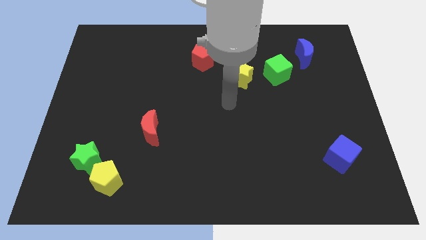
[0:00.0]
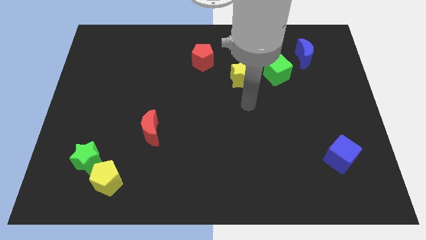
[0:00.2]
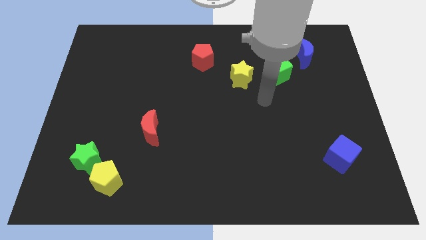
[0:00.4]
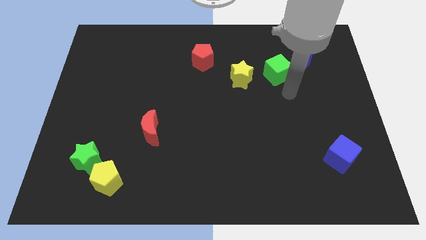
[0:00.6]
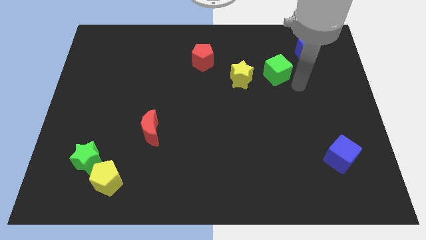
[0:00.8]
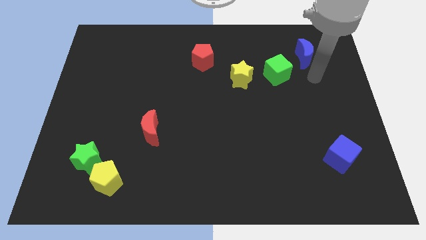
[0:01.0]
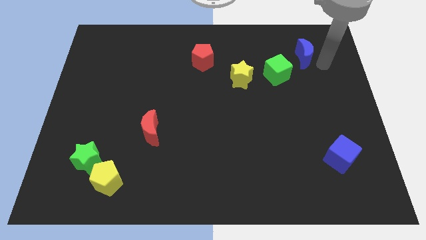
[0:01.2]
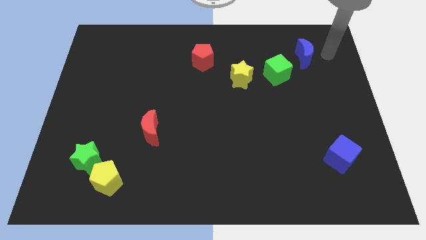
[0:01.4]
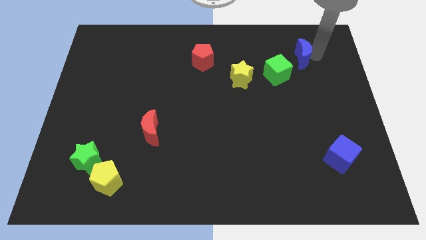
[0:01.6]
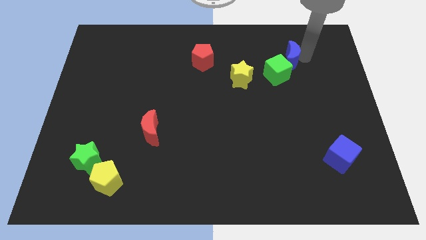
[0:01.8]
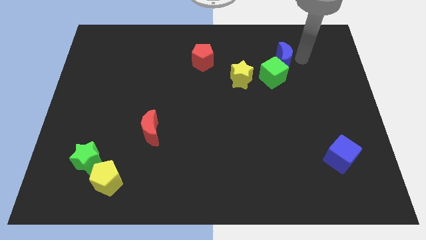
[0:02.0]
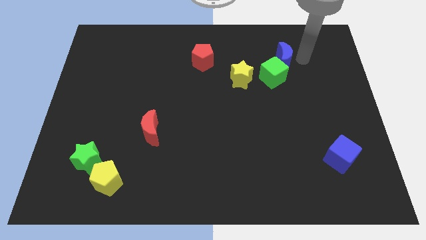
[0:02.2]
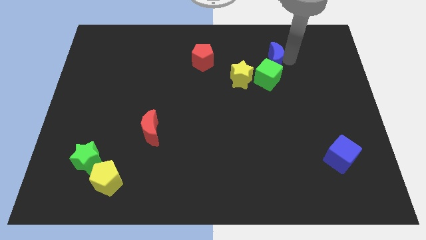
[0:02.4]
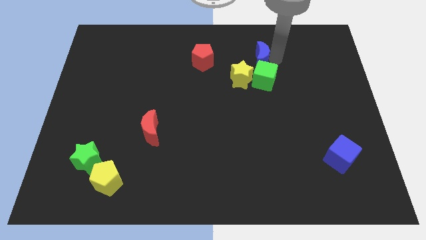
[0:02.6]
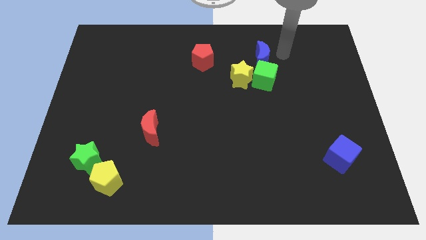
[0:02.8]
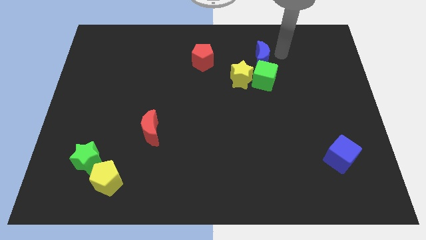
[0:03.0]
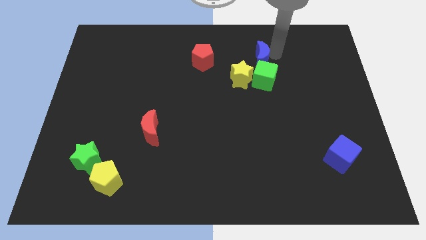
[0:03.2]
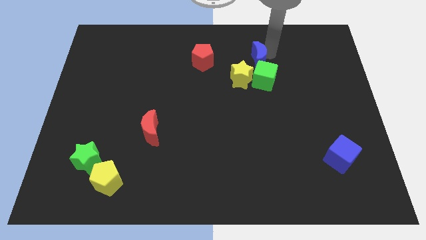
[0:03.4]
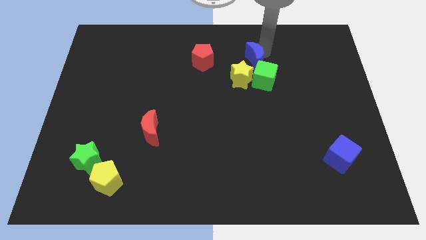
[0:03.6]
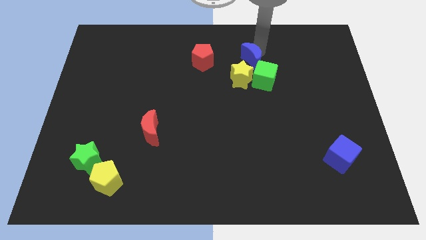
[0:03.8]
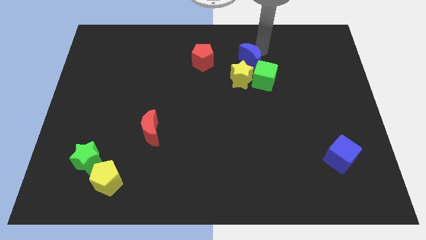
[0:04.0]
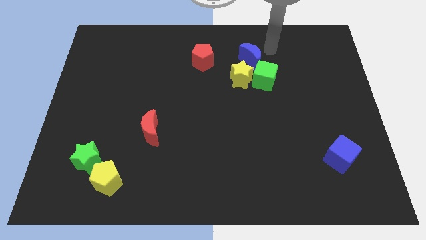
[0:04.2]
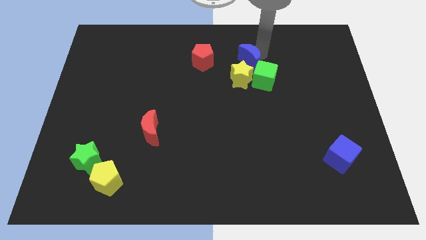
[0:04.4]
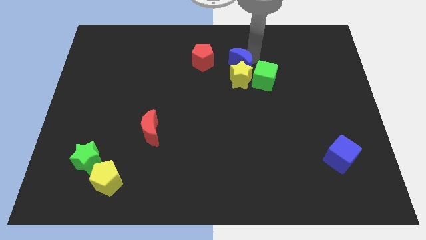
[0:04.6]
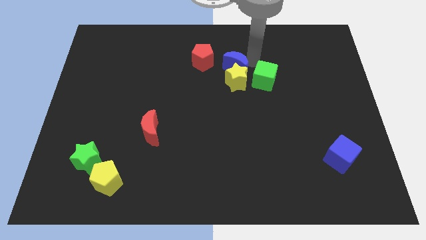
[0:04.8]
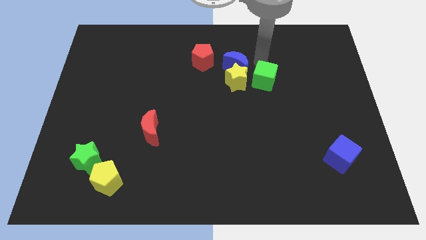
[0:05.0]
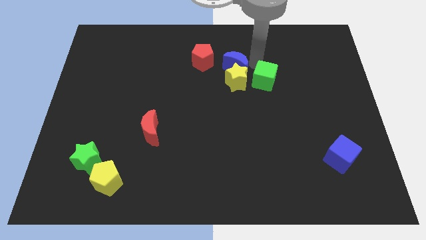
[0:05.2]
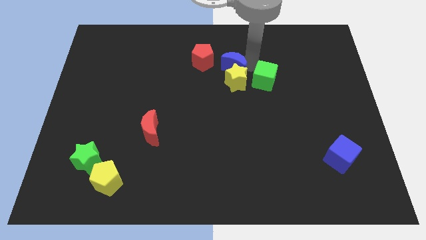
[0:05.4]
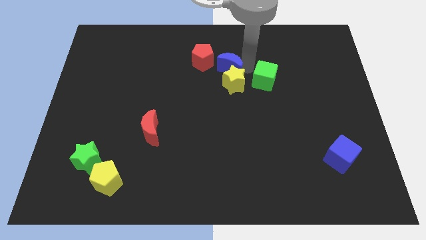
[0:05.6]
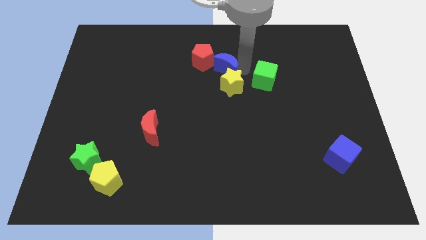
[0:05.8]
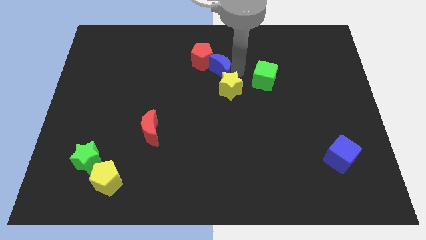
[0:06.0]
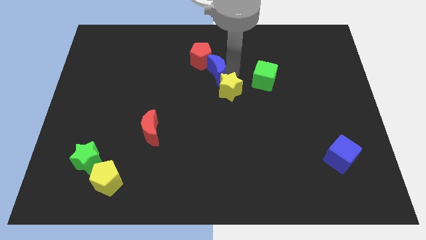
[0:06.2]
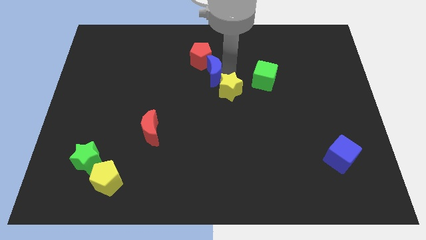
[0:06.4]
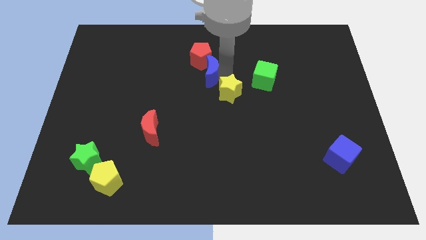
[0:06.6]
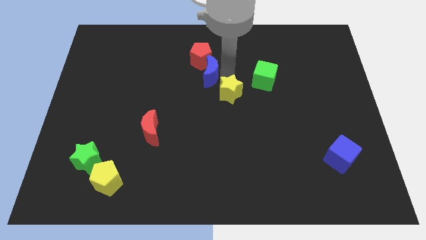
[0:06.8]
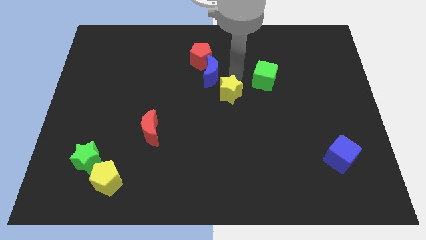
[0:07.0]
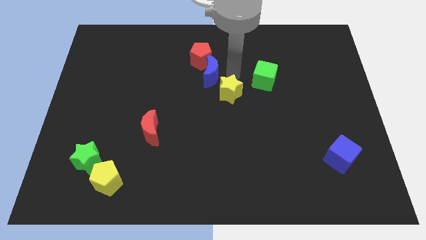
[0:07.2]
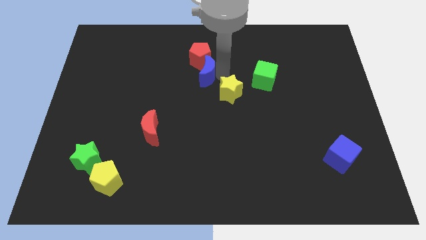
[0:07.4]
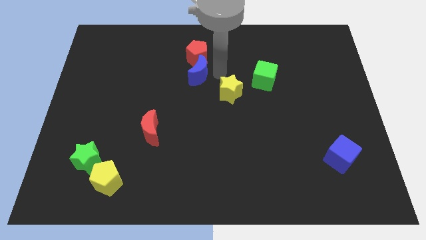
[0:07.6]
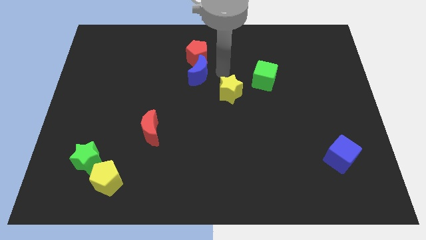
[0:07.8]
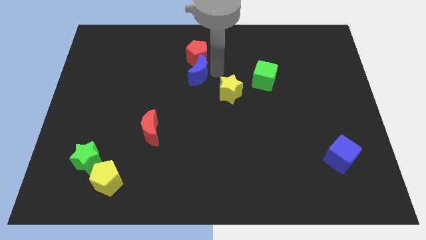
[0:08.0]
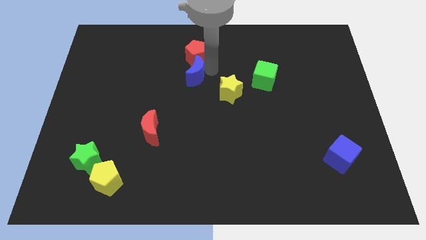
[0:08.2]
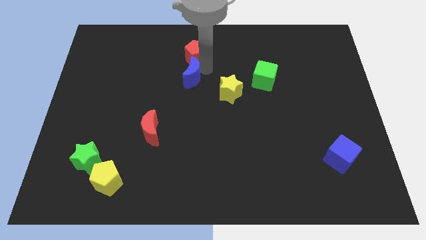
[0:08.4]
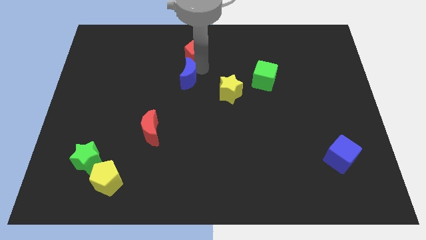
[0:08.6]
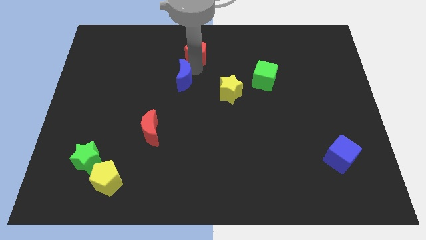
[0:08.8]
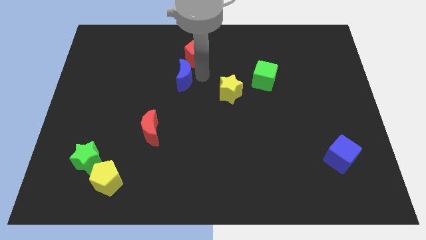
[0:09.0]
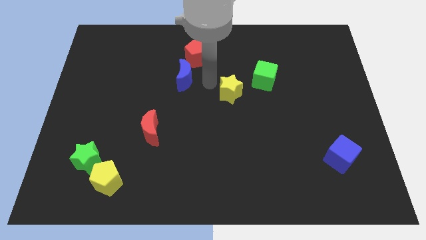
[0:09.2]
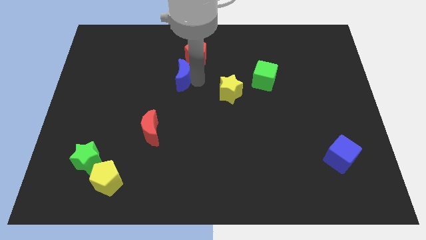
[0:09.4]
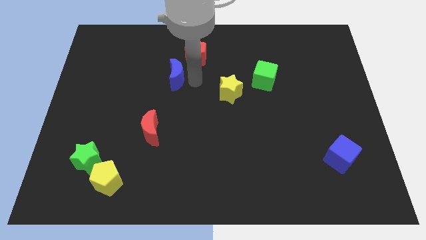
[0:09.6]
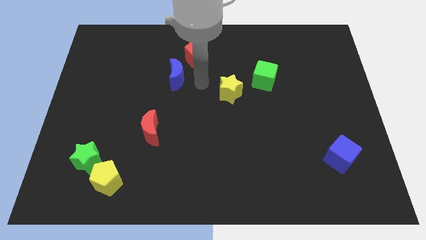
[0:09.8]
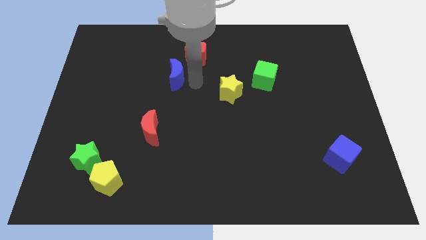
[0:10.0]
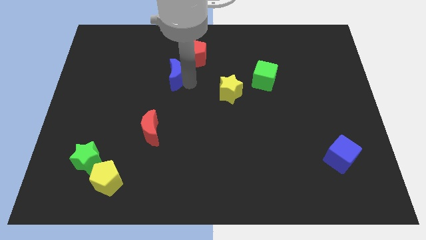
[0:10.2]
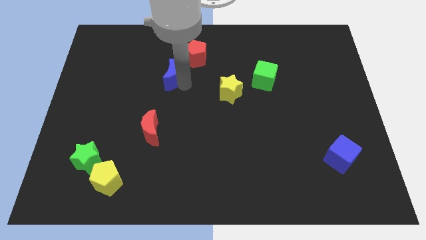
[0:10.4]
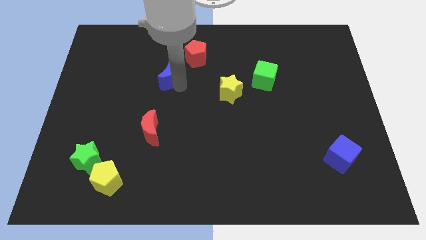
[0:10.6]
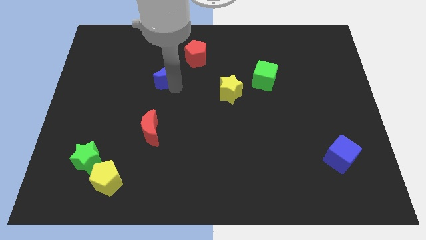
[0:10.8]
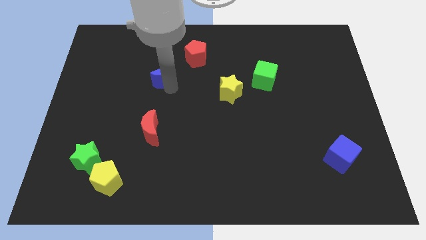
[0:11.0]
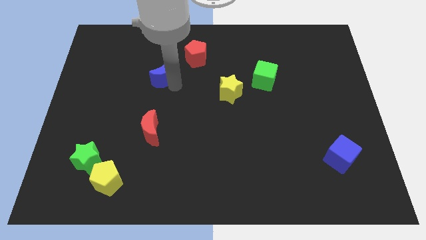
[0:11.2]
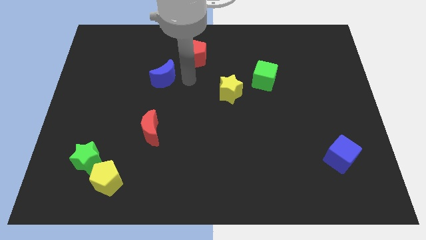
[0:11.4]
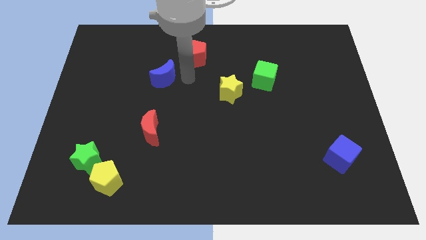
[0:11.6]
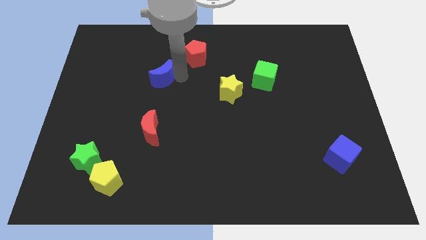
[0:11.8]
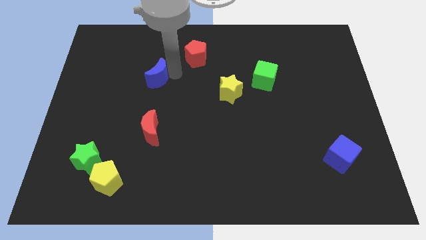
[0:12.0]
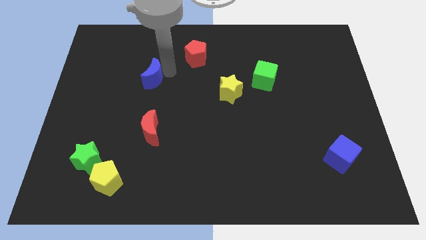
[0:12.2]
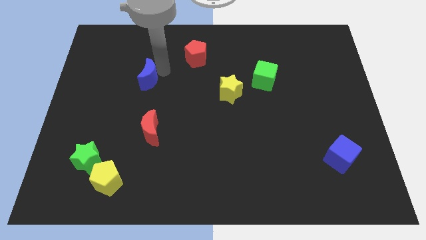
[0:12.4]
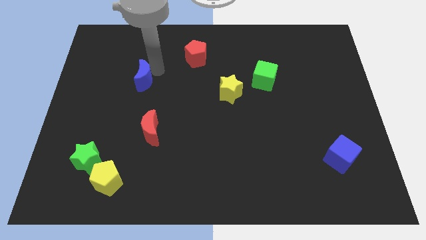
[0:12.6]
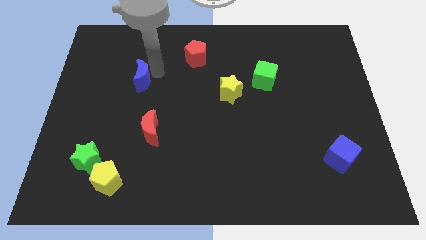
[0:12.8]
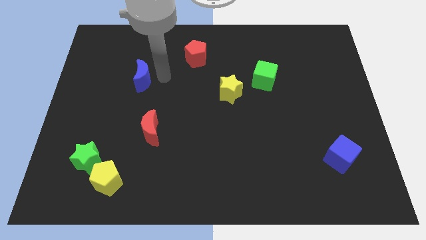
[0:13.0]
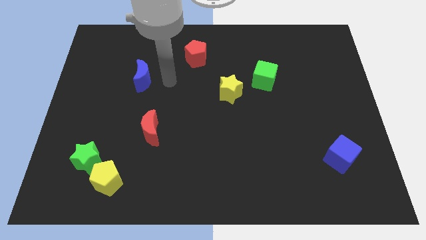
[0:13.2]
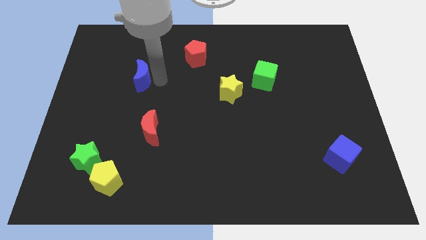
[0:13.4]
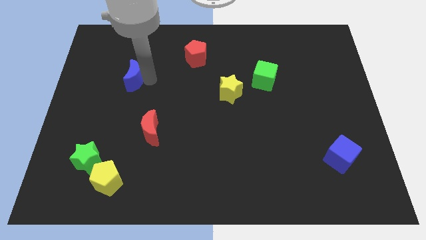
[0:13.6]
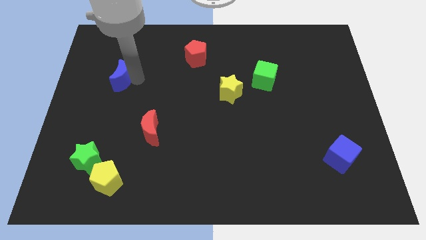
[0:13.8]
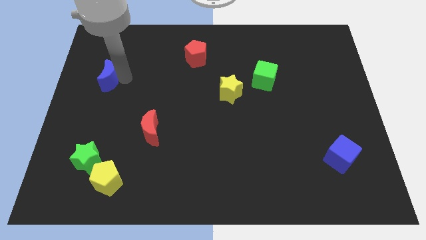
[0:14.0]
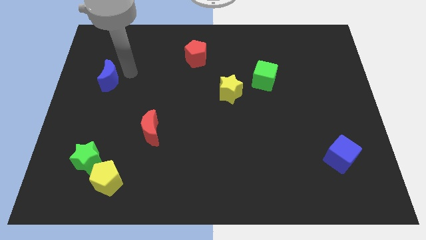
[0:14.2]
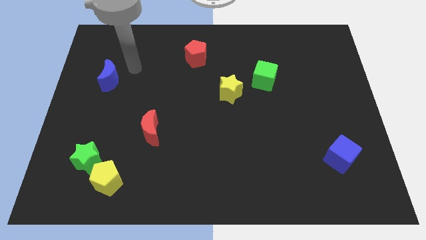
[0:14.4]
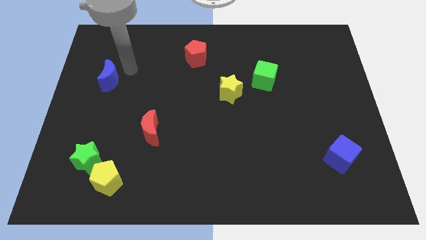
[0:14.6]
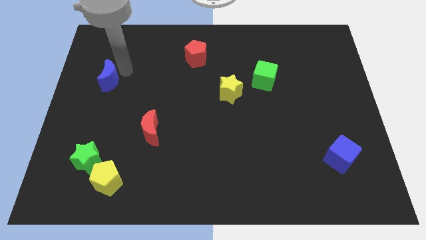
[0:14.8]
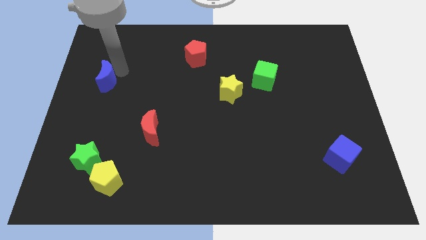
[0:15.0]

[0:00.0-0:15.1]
move the blue moon to the left side
